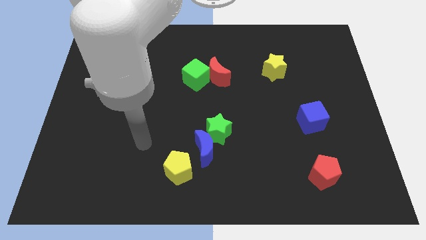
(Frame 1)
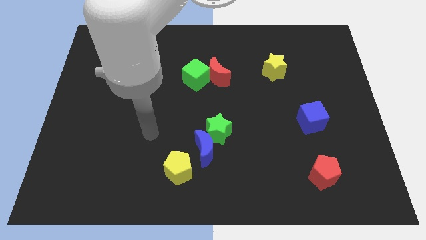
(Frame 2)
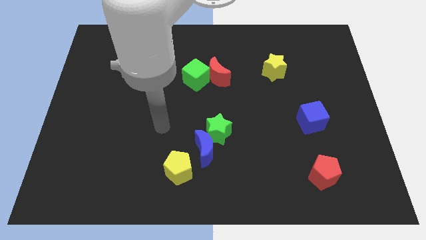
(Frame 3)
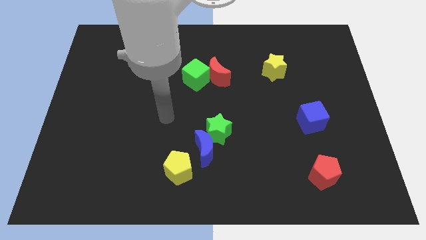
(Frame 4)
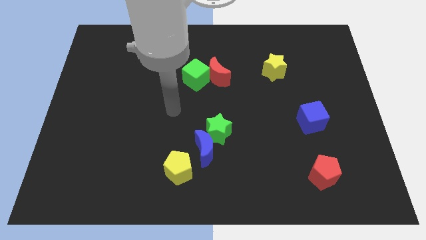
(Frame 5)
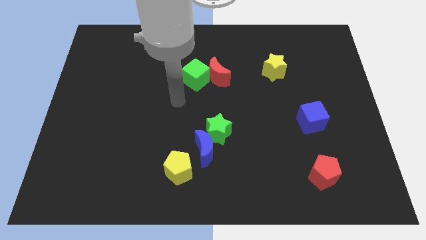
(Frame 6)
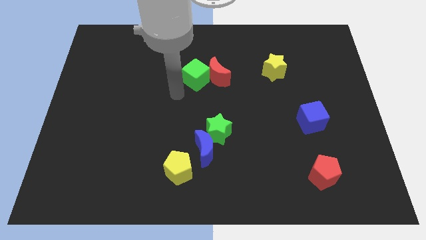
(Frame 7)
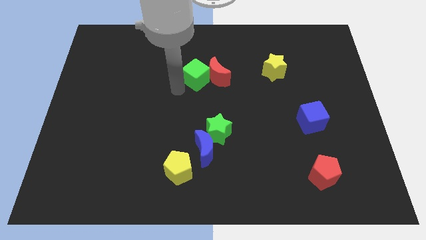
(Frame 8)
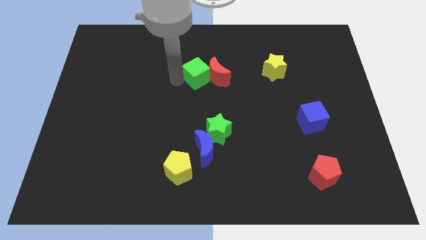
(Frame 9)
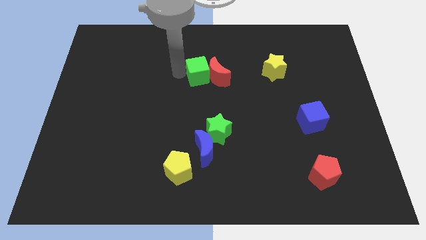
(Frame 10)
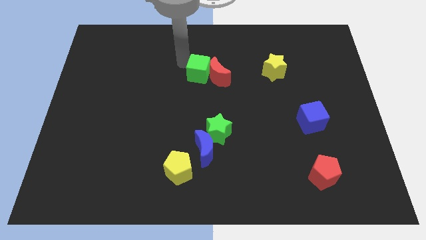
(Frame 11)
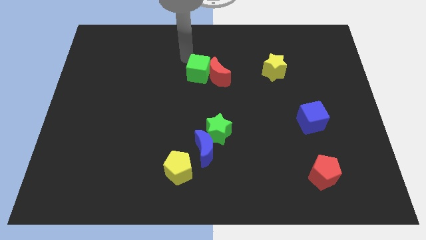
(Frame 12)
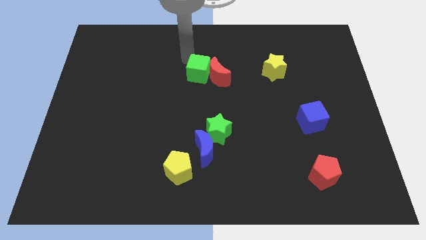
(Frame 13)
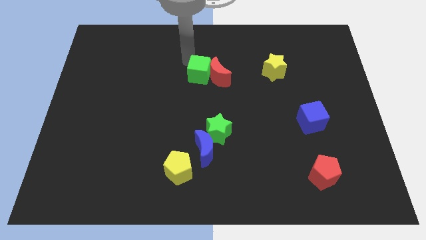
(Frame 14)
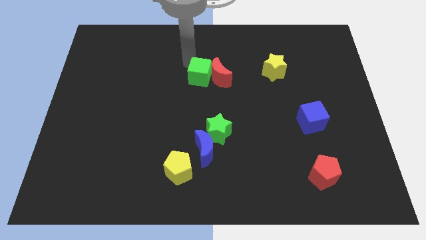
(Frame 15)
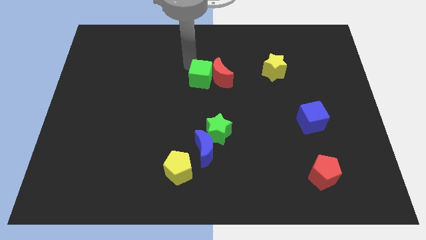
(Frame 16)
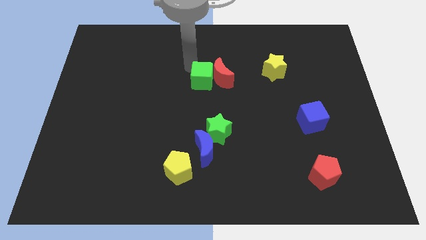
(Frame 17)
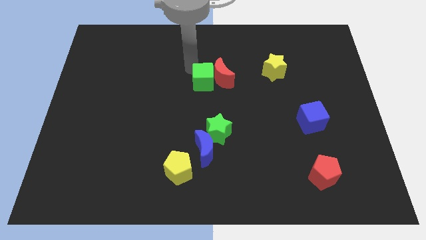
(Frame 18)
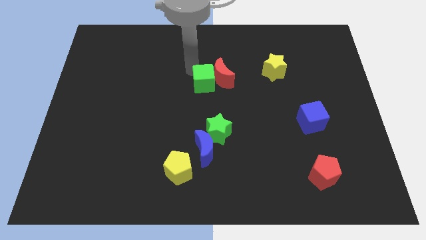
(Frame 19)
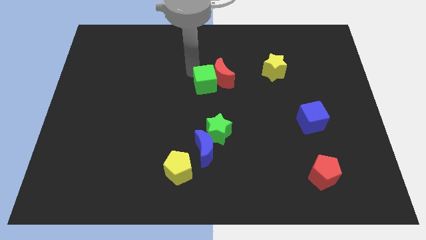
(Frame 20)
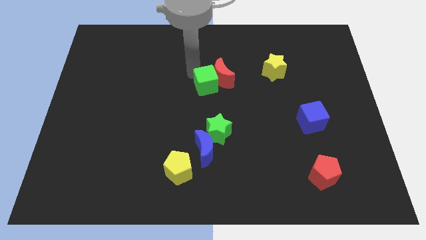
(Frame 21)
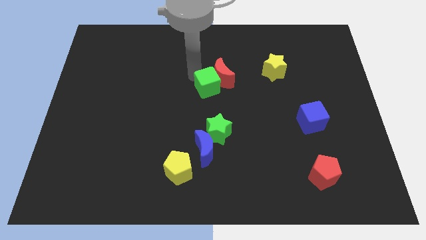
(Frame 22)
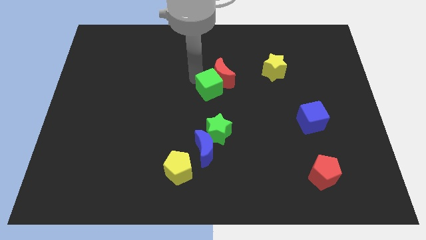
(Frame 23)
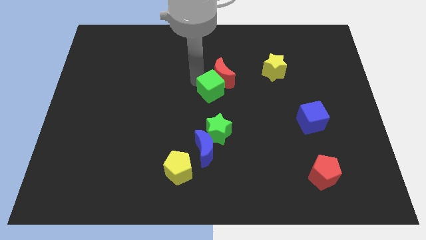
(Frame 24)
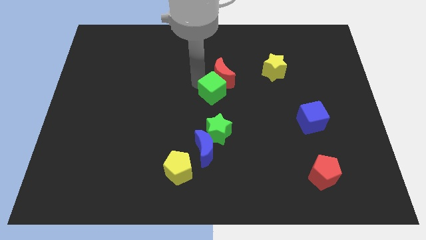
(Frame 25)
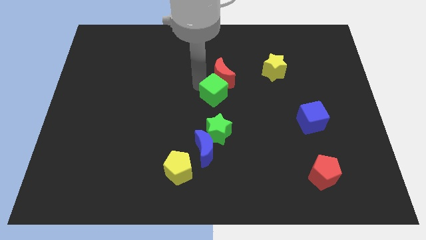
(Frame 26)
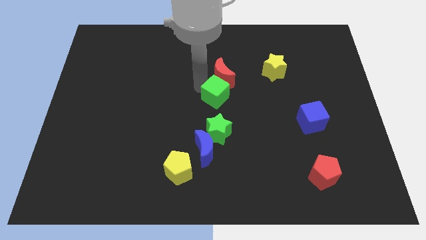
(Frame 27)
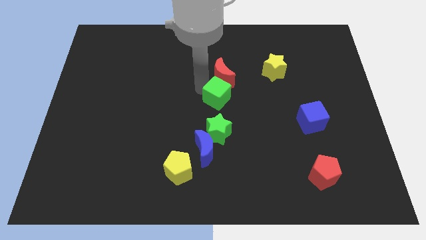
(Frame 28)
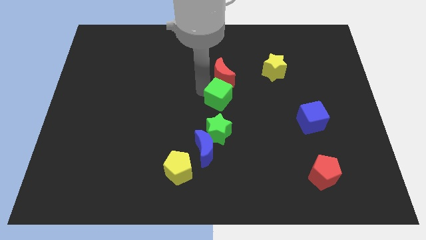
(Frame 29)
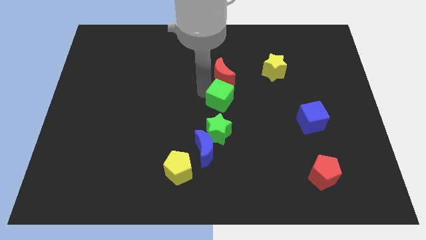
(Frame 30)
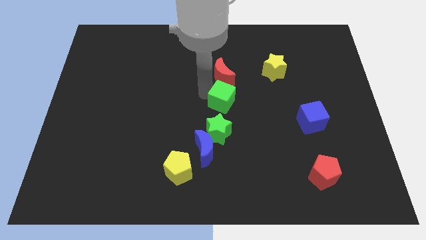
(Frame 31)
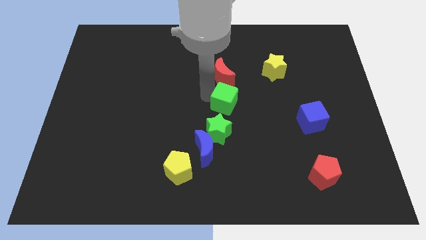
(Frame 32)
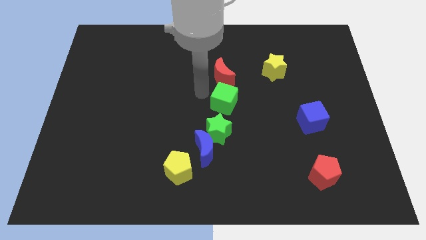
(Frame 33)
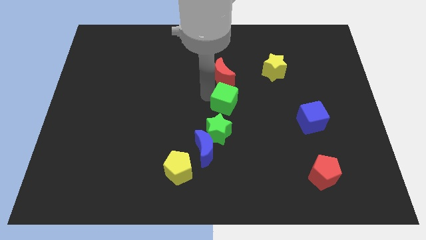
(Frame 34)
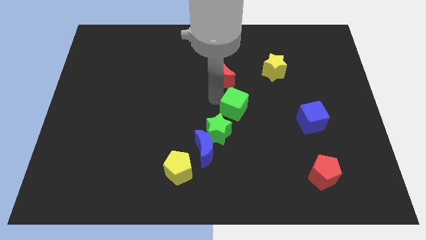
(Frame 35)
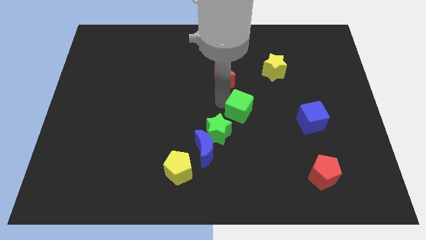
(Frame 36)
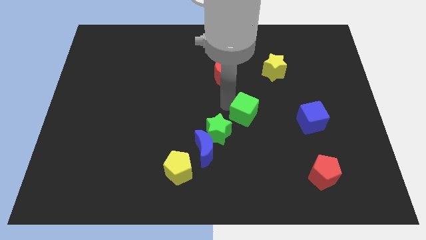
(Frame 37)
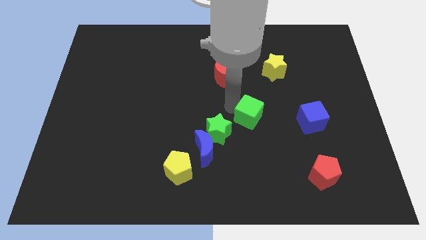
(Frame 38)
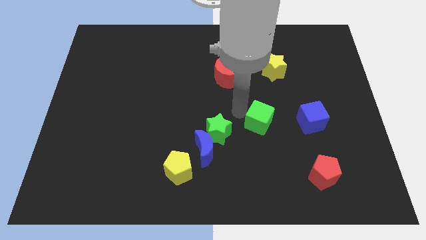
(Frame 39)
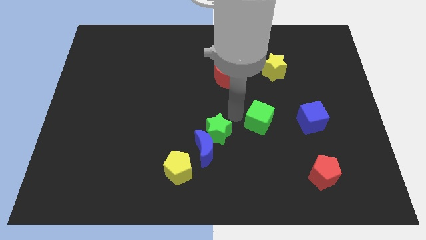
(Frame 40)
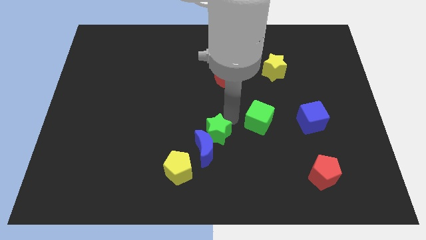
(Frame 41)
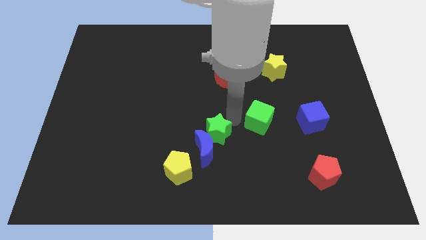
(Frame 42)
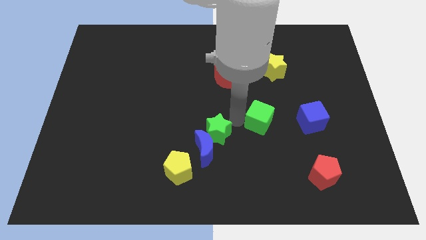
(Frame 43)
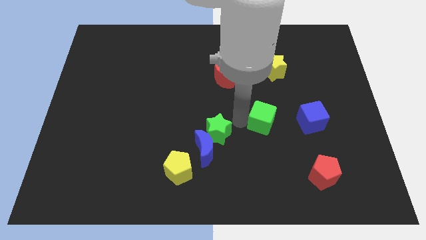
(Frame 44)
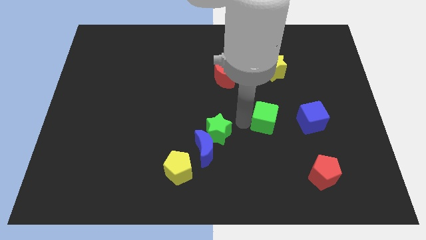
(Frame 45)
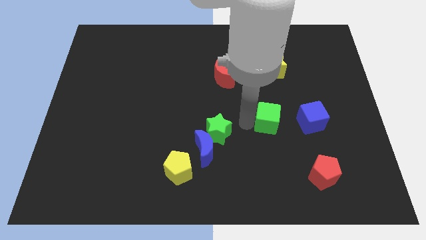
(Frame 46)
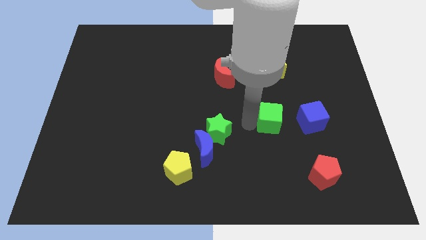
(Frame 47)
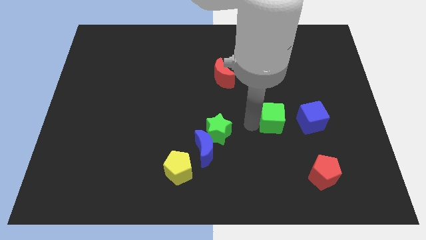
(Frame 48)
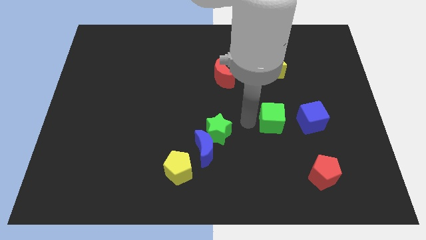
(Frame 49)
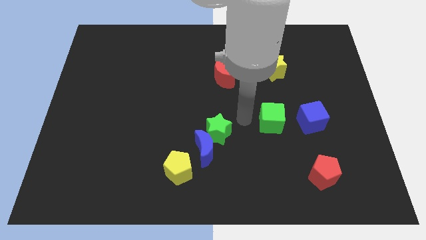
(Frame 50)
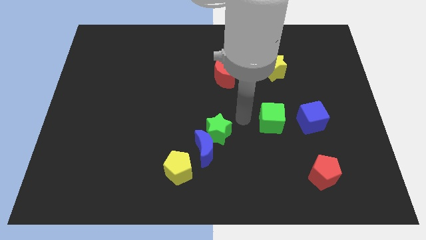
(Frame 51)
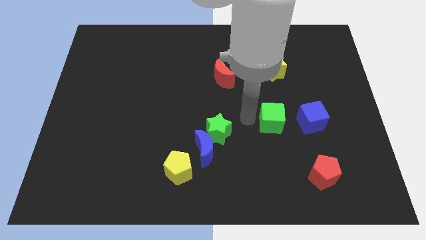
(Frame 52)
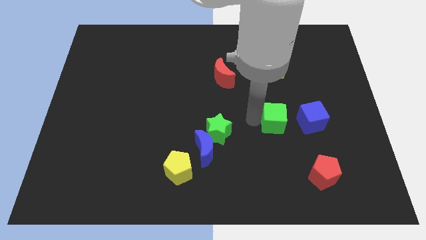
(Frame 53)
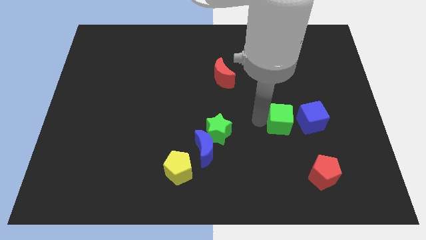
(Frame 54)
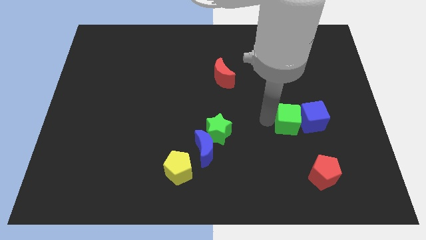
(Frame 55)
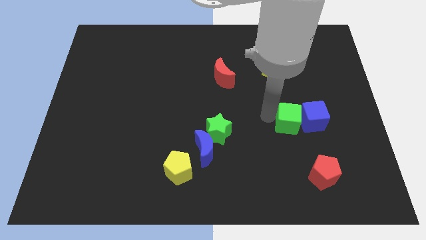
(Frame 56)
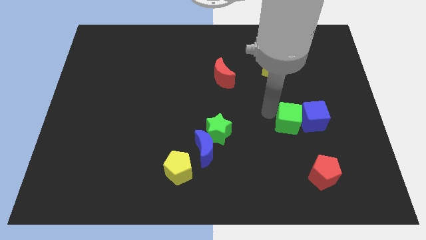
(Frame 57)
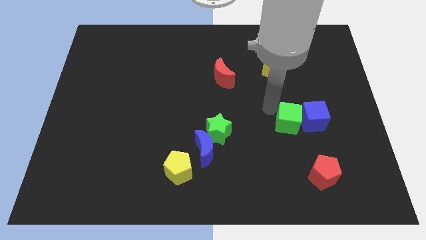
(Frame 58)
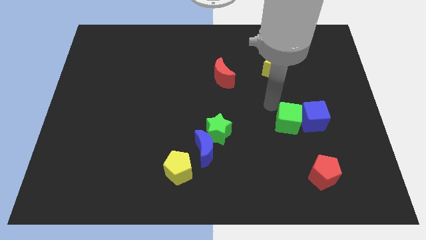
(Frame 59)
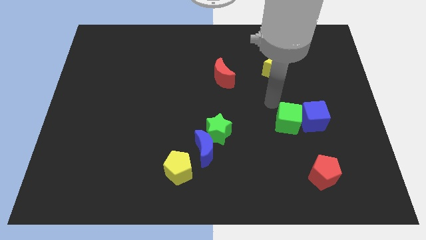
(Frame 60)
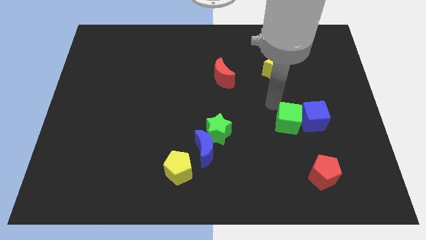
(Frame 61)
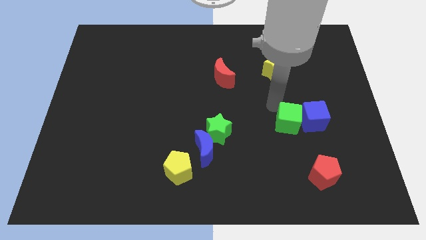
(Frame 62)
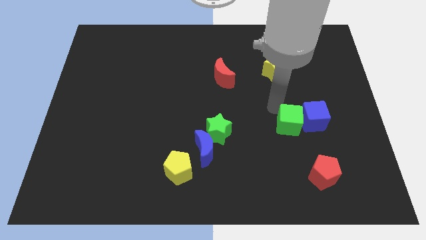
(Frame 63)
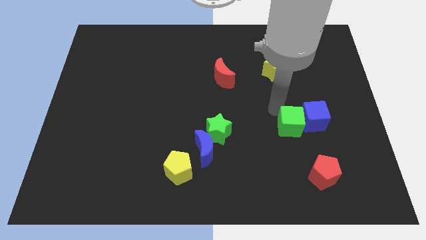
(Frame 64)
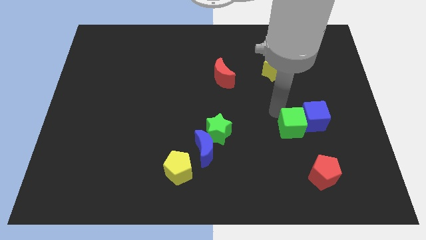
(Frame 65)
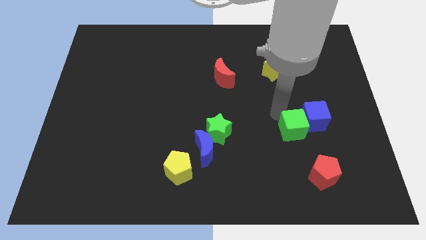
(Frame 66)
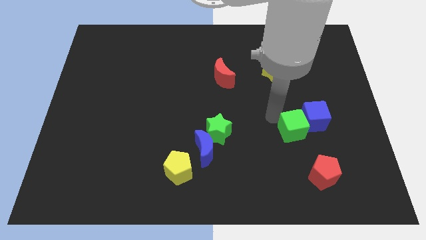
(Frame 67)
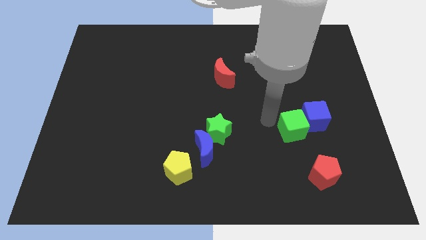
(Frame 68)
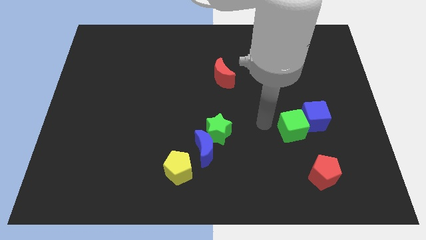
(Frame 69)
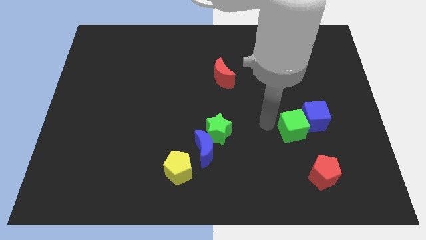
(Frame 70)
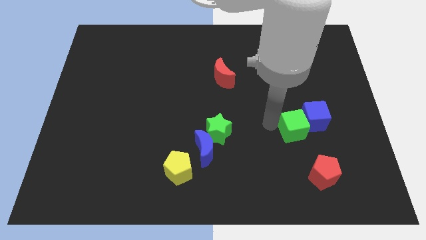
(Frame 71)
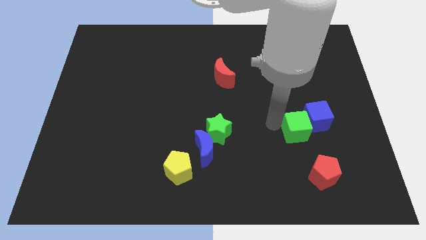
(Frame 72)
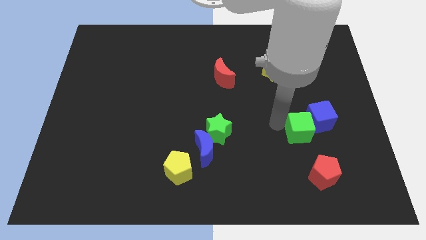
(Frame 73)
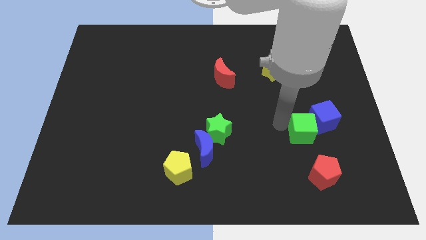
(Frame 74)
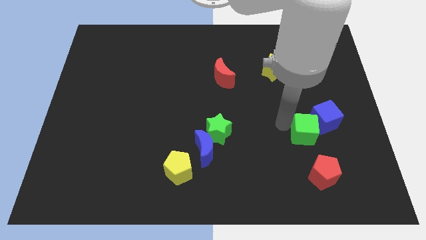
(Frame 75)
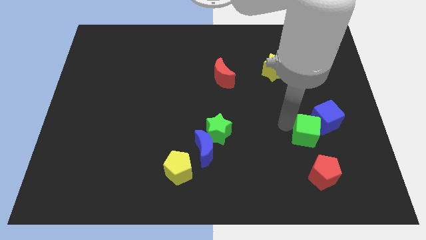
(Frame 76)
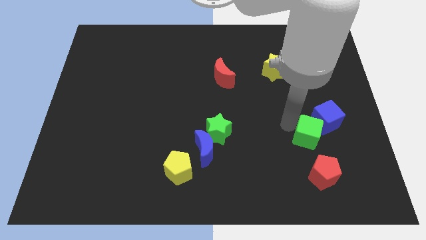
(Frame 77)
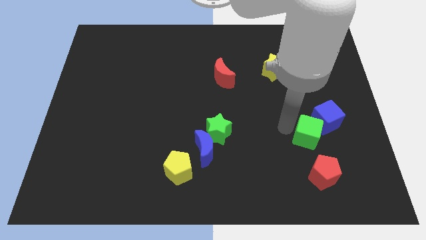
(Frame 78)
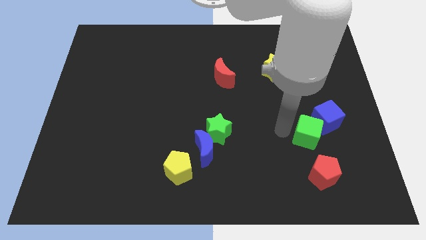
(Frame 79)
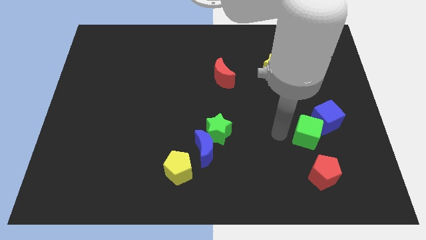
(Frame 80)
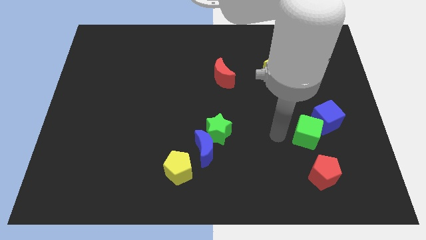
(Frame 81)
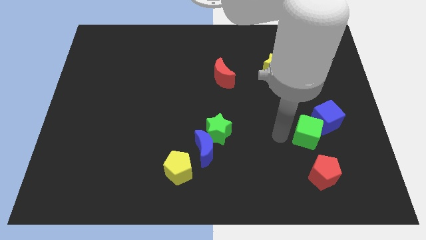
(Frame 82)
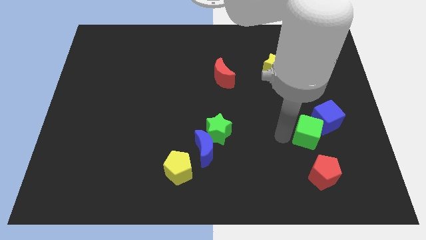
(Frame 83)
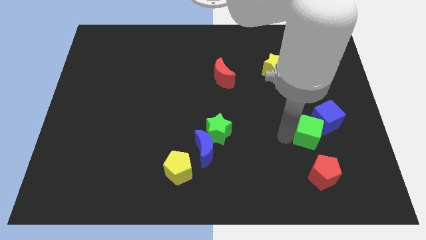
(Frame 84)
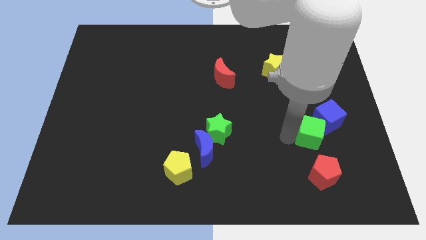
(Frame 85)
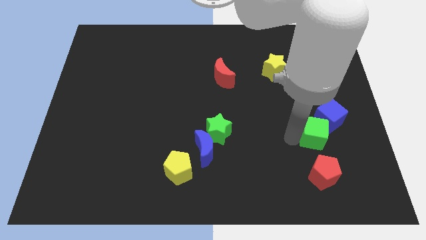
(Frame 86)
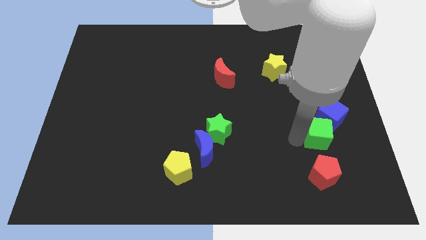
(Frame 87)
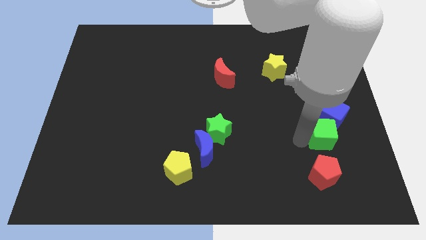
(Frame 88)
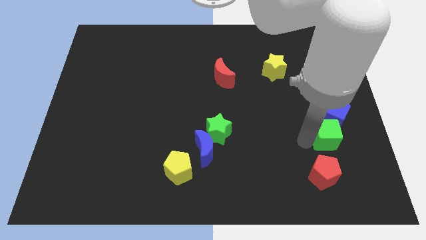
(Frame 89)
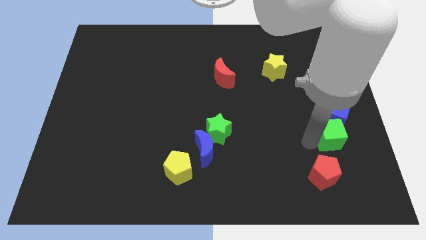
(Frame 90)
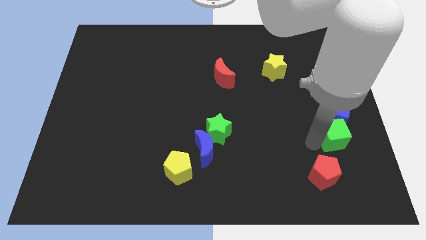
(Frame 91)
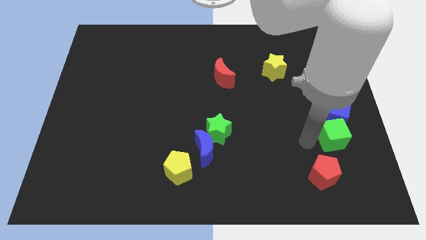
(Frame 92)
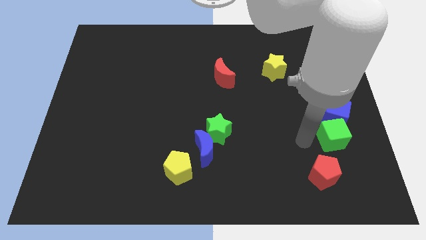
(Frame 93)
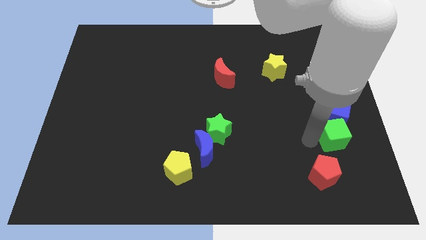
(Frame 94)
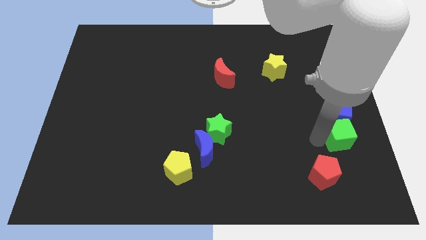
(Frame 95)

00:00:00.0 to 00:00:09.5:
slide the green cube diagonally down and to the right of the blue cube
